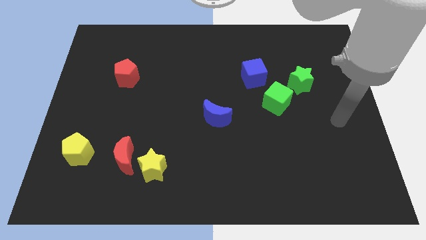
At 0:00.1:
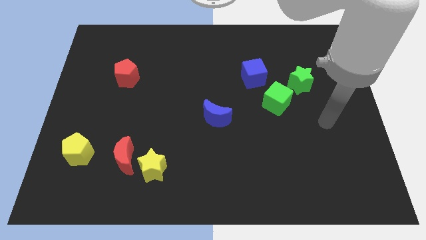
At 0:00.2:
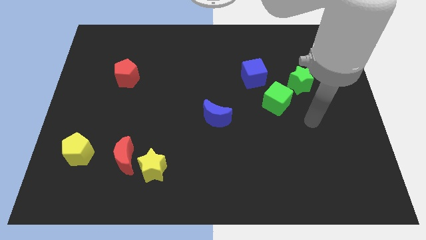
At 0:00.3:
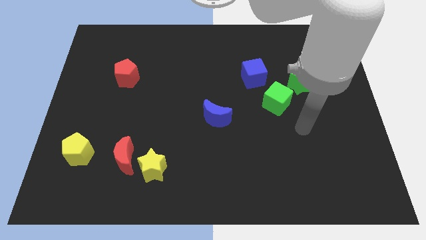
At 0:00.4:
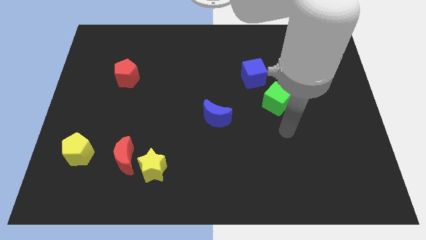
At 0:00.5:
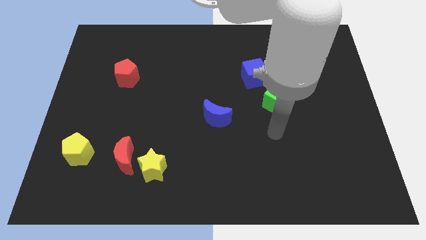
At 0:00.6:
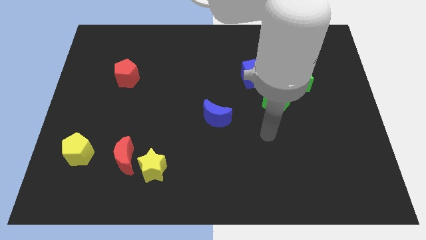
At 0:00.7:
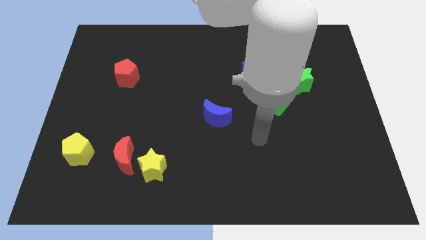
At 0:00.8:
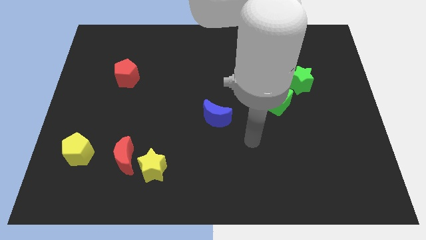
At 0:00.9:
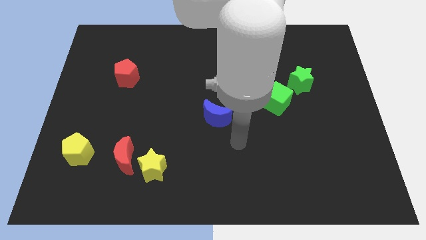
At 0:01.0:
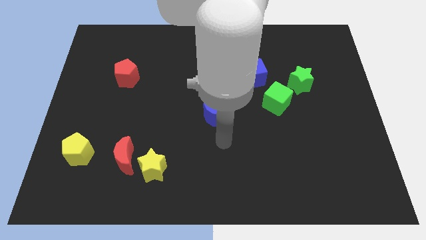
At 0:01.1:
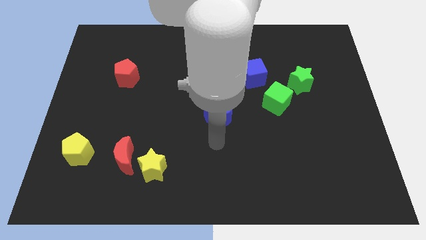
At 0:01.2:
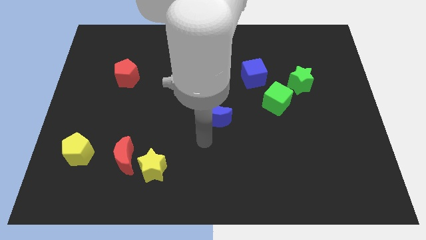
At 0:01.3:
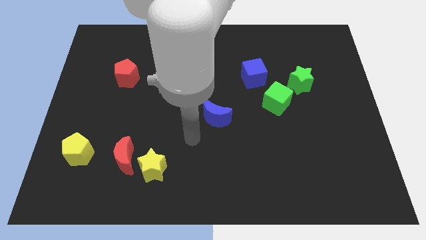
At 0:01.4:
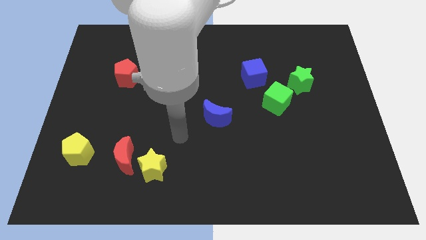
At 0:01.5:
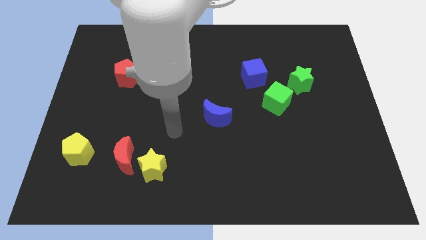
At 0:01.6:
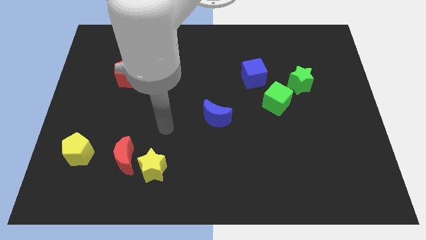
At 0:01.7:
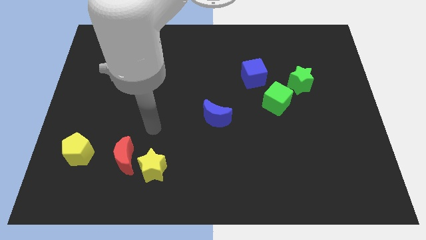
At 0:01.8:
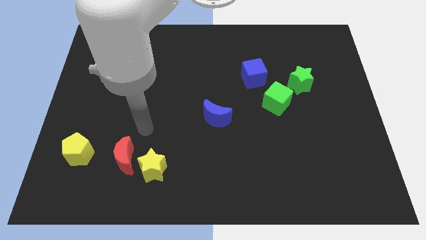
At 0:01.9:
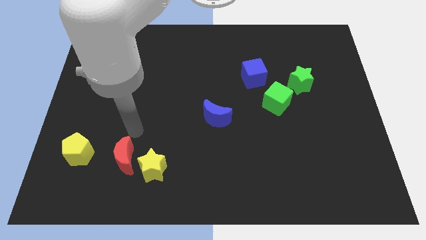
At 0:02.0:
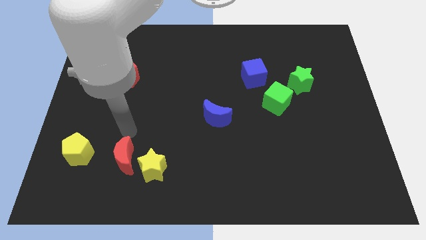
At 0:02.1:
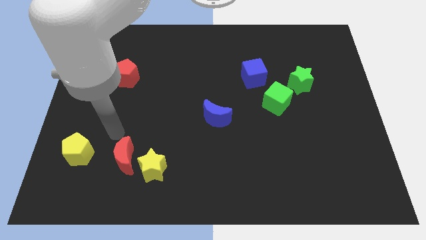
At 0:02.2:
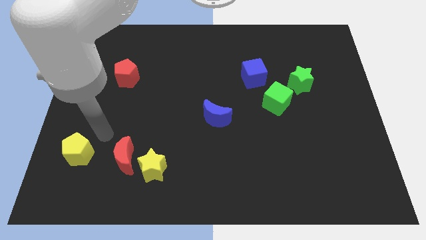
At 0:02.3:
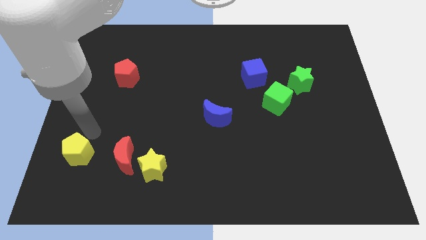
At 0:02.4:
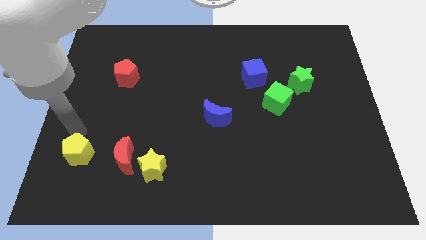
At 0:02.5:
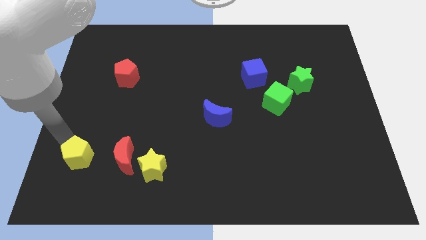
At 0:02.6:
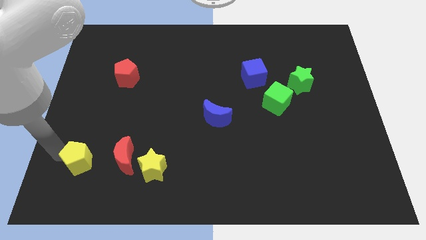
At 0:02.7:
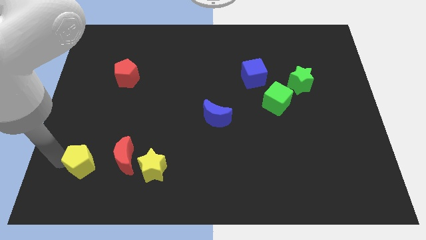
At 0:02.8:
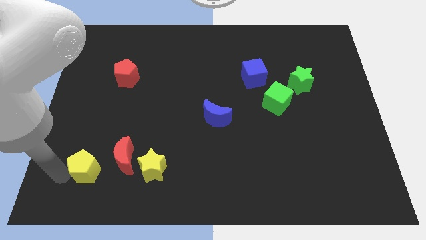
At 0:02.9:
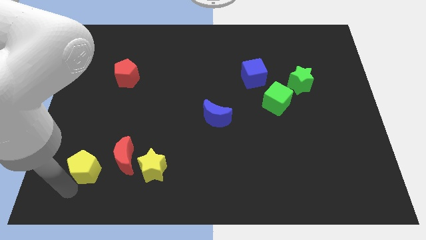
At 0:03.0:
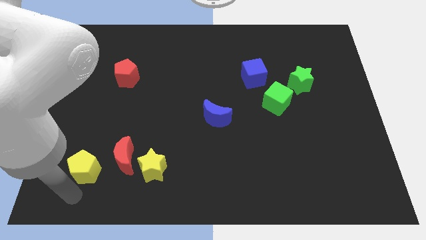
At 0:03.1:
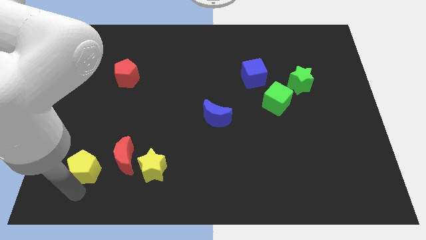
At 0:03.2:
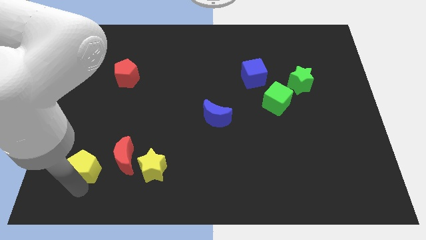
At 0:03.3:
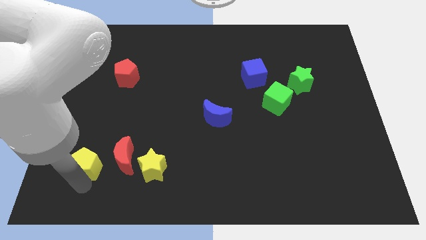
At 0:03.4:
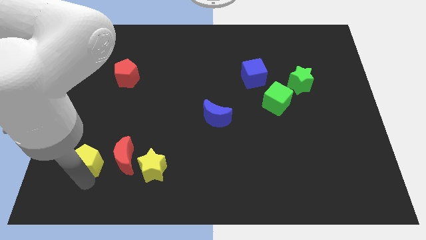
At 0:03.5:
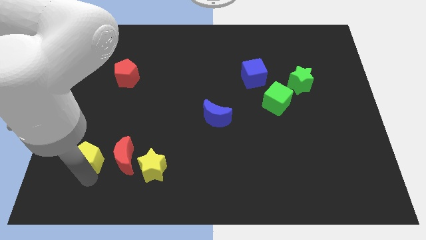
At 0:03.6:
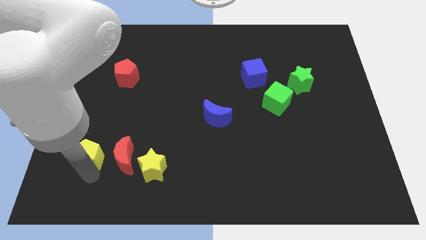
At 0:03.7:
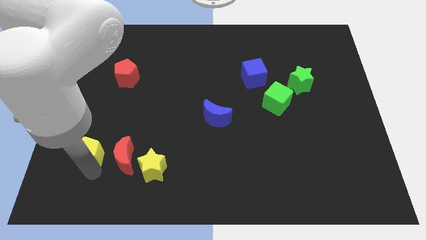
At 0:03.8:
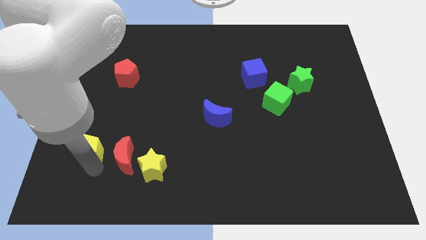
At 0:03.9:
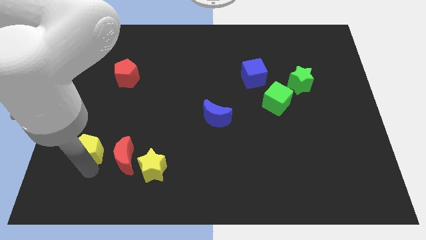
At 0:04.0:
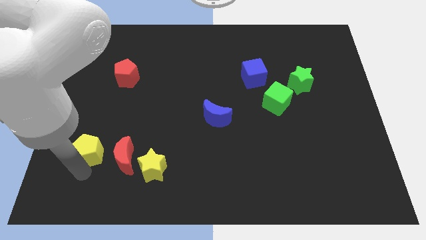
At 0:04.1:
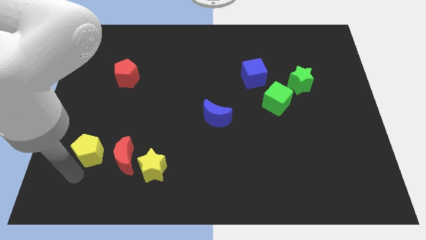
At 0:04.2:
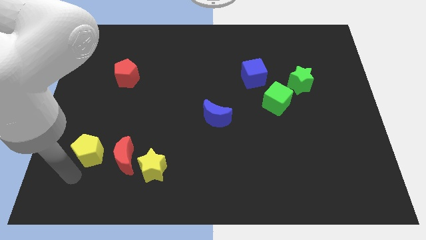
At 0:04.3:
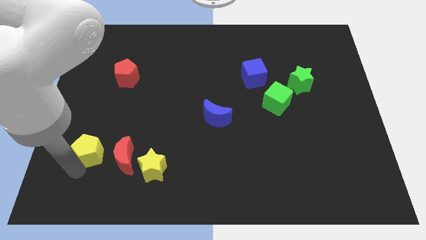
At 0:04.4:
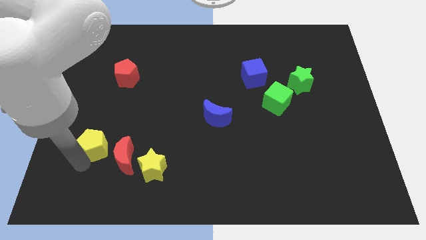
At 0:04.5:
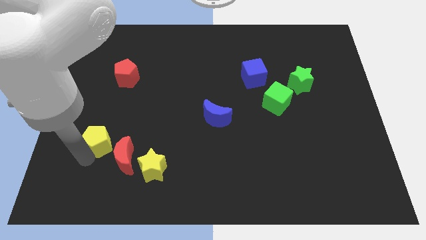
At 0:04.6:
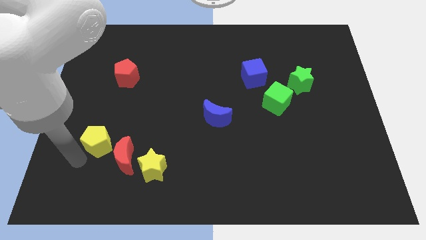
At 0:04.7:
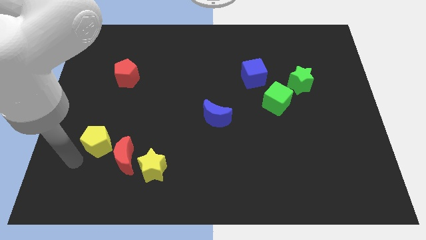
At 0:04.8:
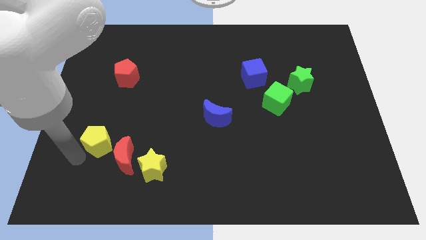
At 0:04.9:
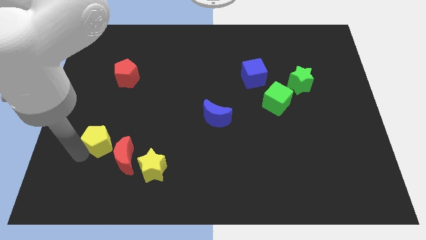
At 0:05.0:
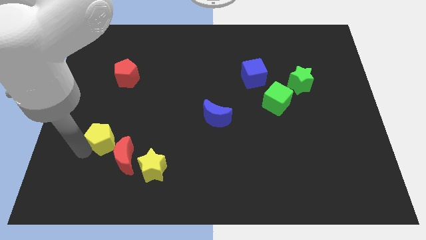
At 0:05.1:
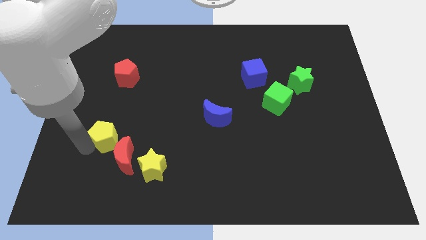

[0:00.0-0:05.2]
slide the yellow pentagon to the top of the red moon

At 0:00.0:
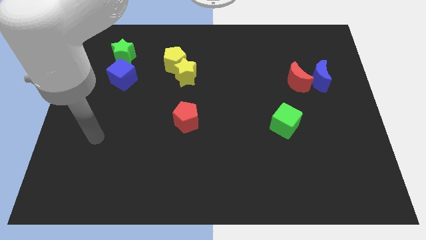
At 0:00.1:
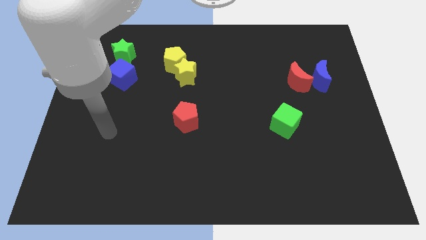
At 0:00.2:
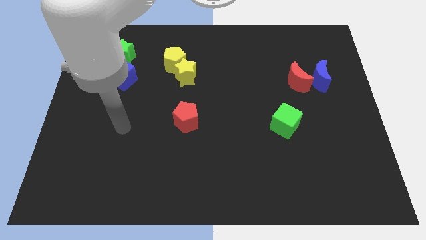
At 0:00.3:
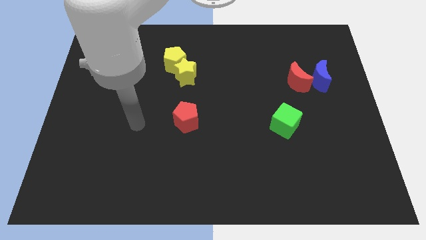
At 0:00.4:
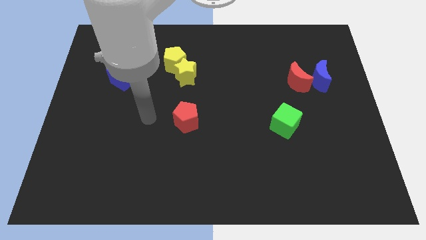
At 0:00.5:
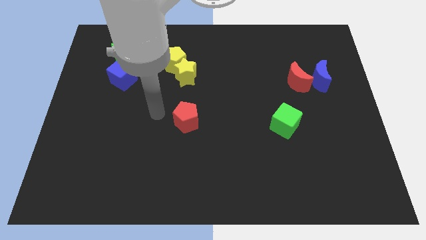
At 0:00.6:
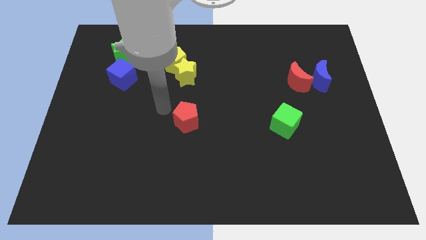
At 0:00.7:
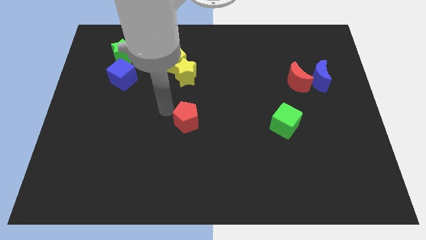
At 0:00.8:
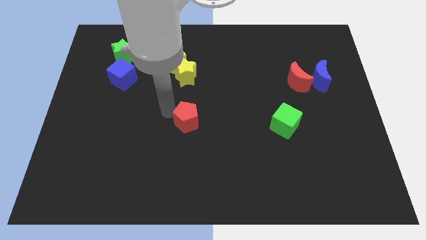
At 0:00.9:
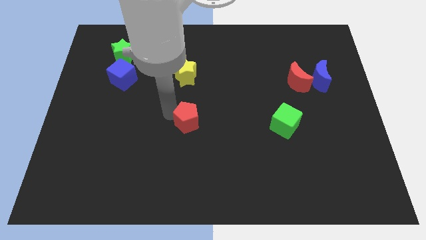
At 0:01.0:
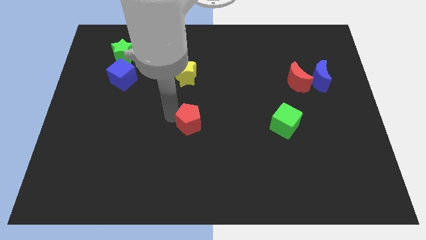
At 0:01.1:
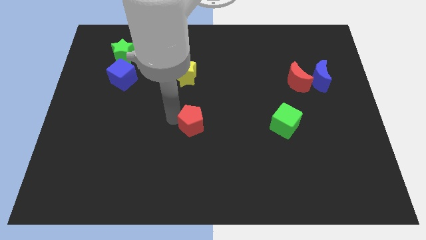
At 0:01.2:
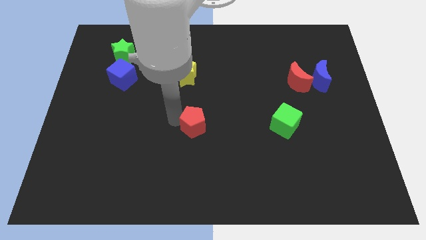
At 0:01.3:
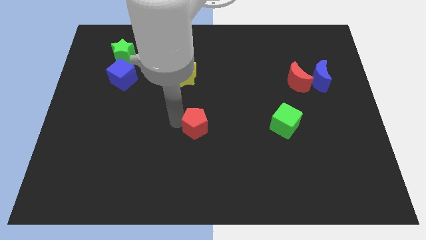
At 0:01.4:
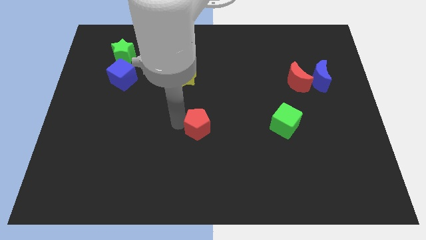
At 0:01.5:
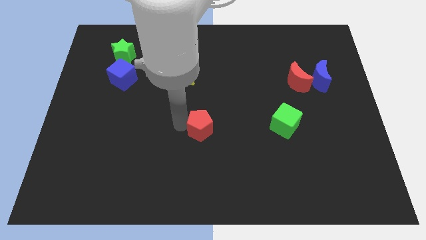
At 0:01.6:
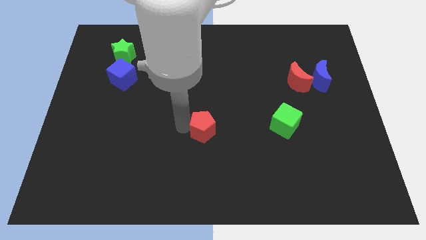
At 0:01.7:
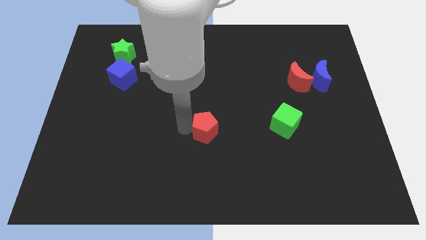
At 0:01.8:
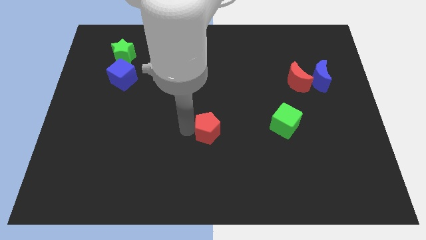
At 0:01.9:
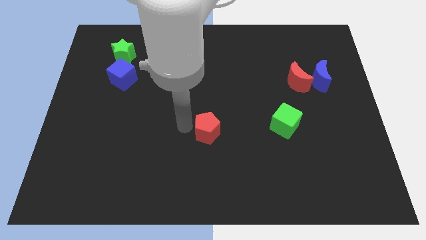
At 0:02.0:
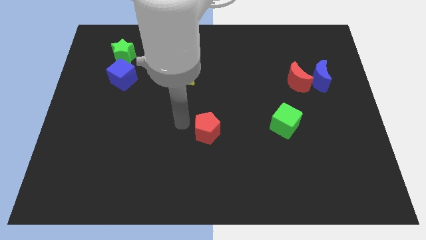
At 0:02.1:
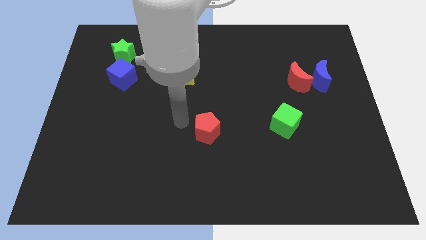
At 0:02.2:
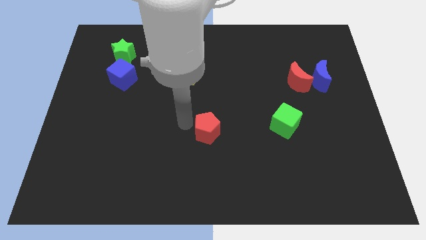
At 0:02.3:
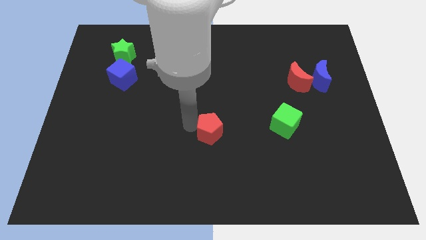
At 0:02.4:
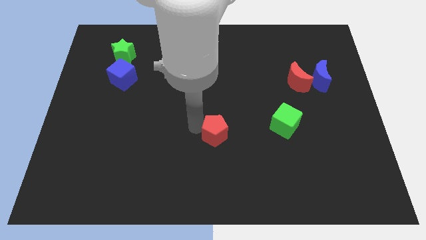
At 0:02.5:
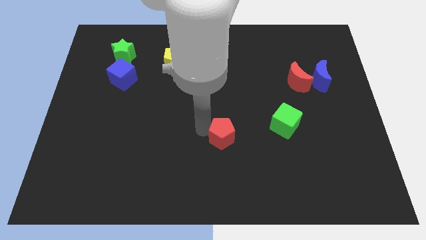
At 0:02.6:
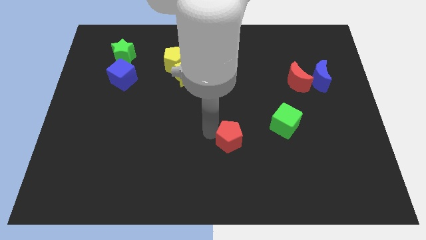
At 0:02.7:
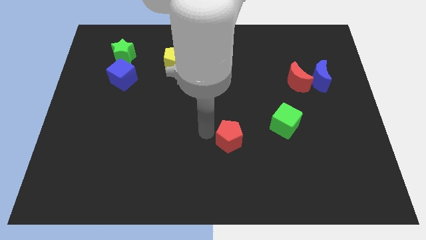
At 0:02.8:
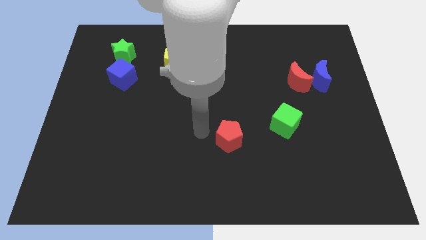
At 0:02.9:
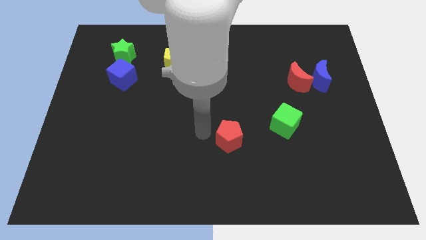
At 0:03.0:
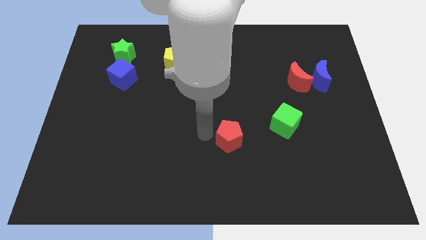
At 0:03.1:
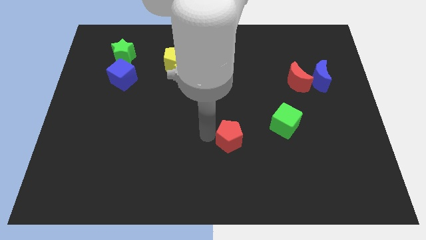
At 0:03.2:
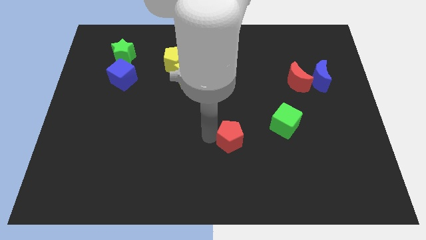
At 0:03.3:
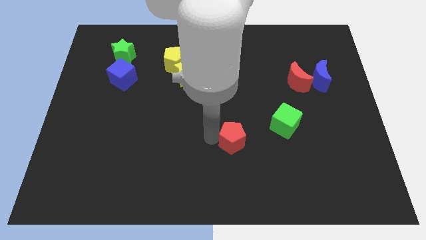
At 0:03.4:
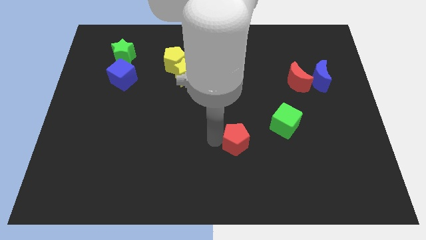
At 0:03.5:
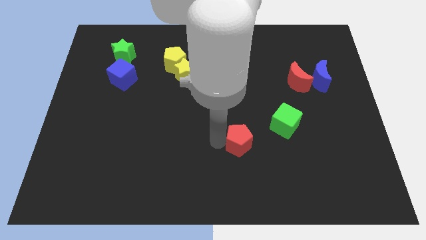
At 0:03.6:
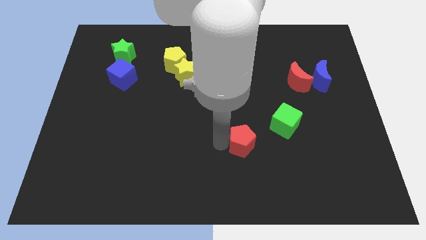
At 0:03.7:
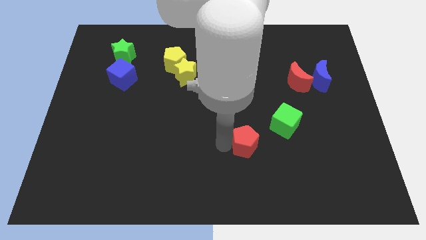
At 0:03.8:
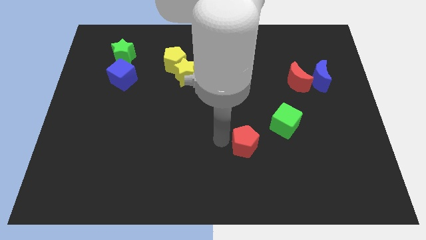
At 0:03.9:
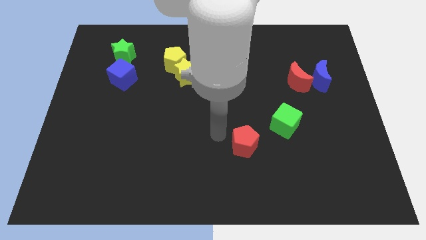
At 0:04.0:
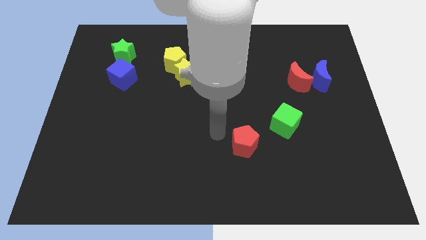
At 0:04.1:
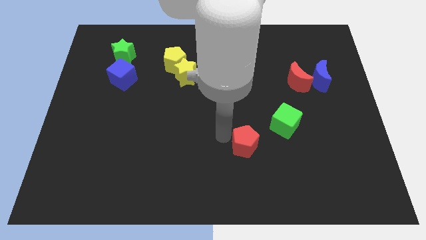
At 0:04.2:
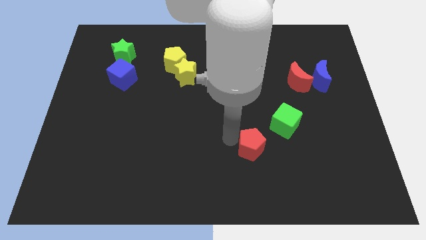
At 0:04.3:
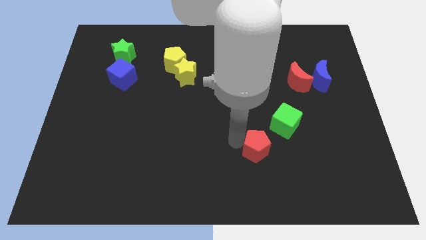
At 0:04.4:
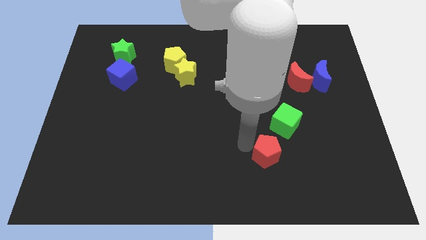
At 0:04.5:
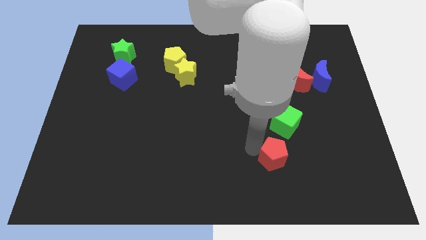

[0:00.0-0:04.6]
put the red pentagon to the bottom of the green cube
